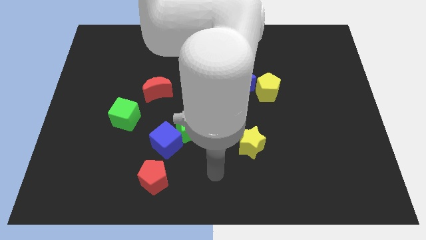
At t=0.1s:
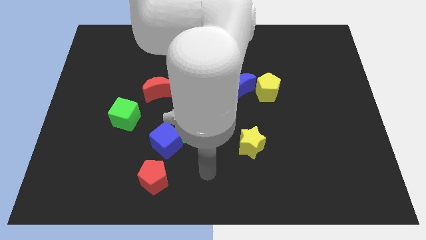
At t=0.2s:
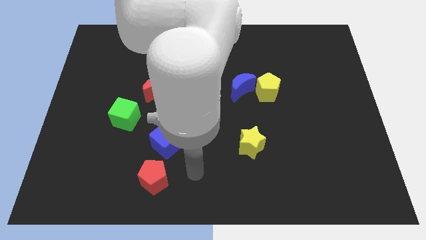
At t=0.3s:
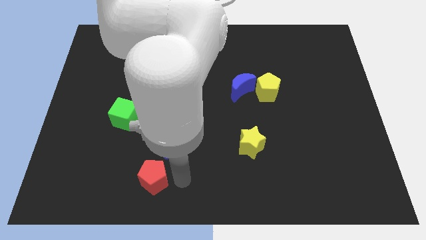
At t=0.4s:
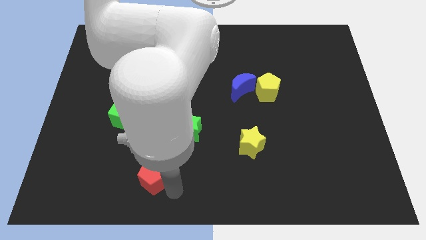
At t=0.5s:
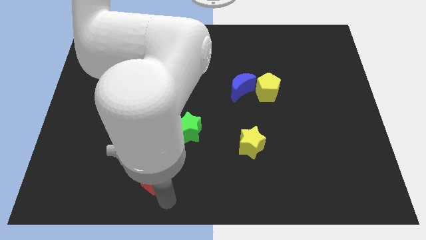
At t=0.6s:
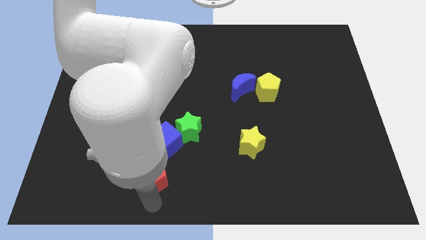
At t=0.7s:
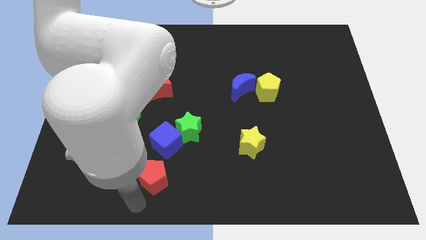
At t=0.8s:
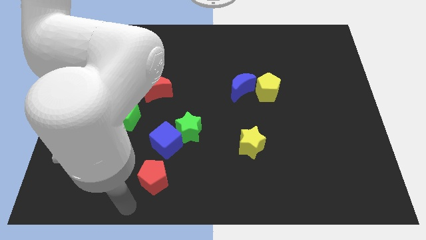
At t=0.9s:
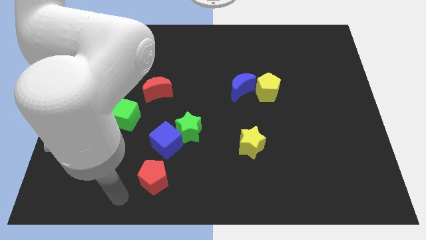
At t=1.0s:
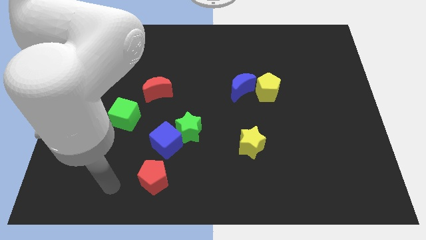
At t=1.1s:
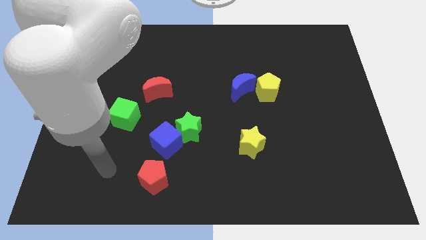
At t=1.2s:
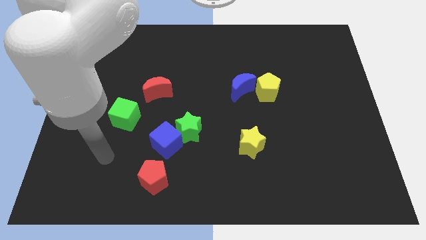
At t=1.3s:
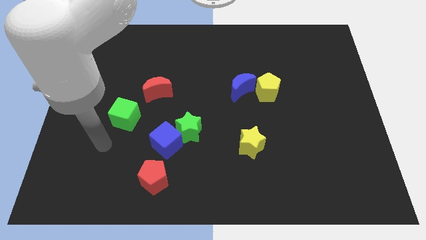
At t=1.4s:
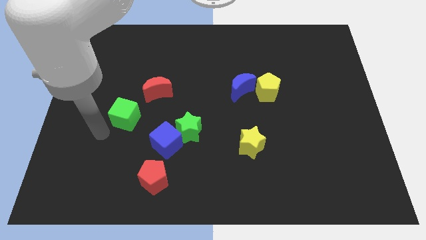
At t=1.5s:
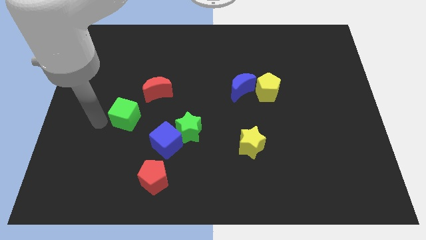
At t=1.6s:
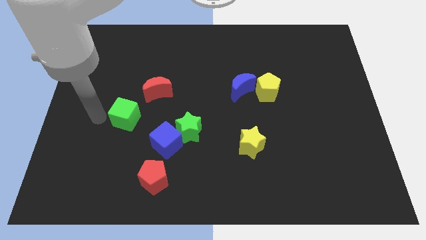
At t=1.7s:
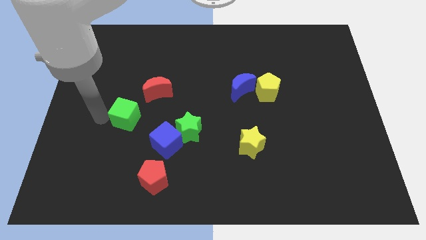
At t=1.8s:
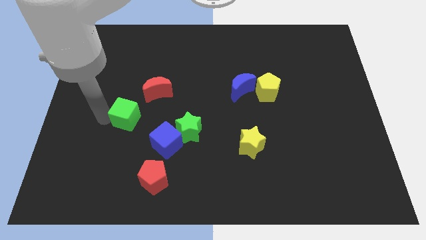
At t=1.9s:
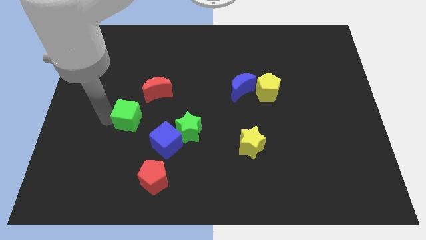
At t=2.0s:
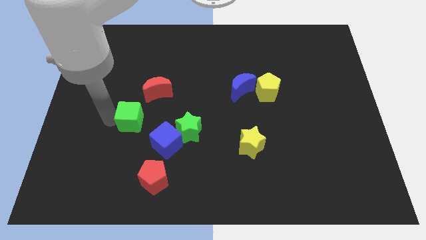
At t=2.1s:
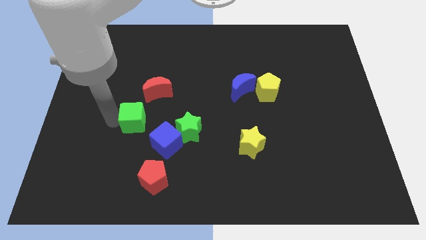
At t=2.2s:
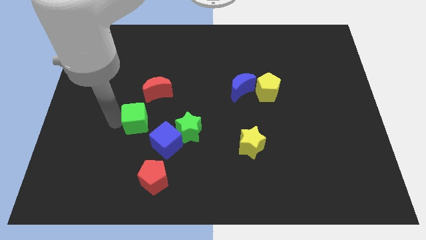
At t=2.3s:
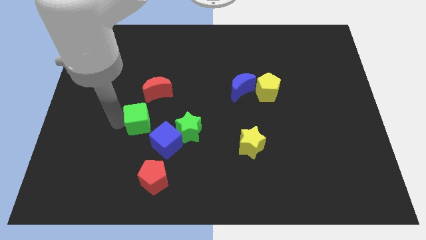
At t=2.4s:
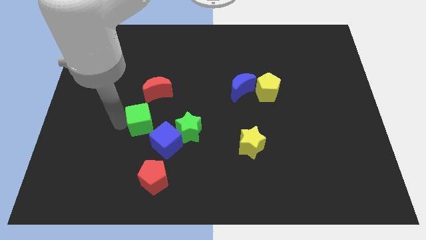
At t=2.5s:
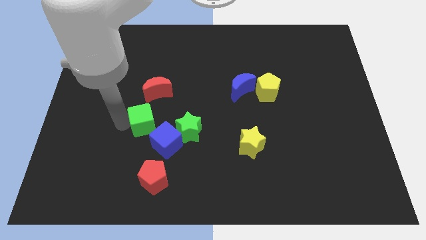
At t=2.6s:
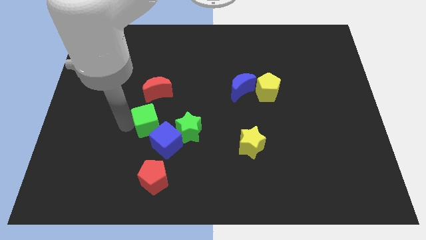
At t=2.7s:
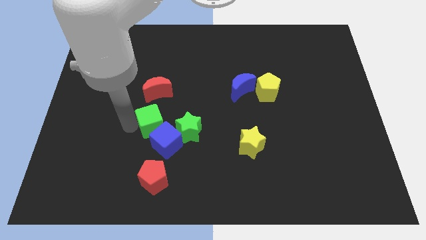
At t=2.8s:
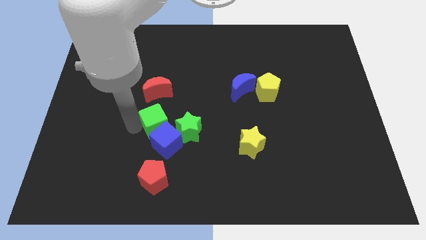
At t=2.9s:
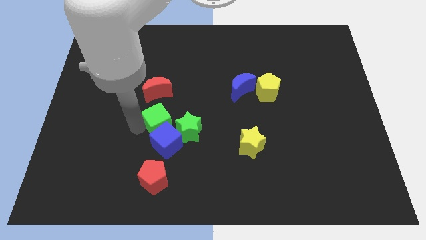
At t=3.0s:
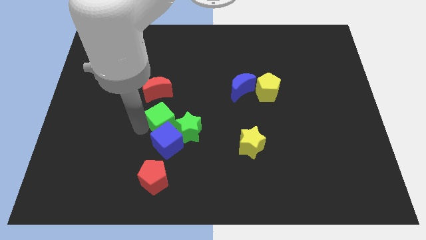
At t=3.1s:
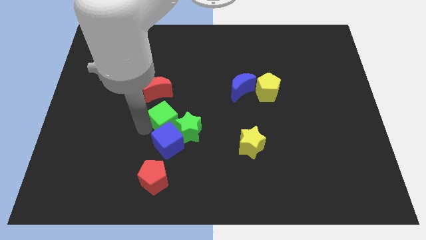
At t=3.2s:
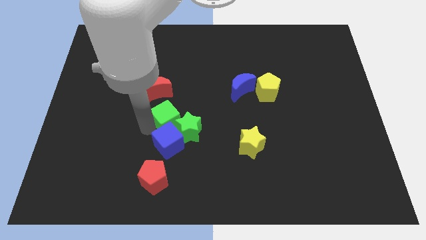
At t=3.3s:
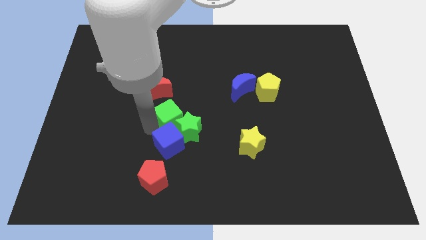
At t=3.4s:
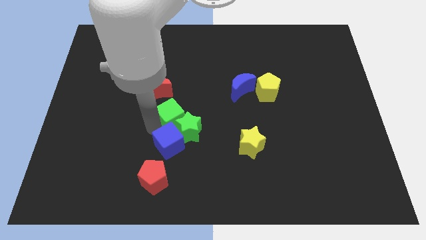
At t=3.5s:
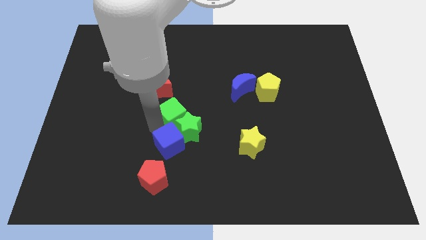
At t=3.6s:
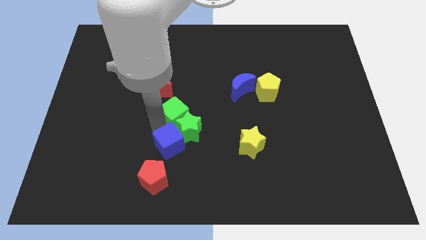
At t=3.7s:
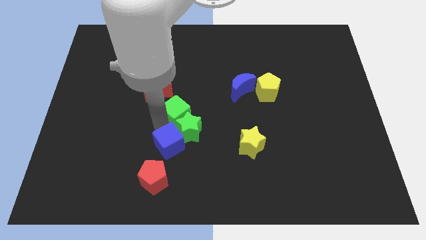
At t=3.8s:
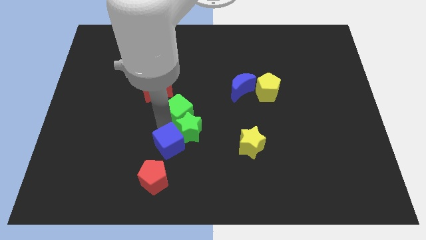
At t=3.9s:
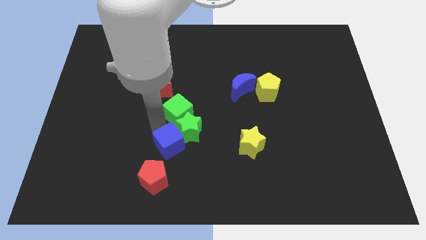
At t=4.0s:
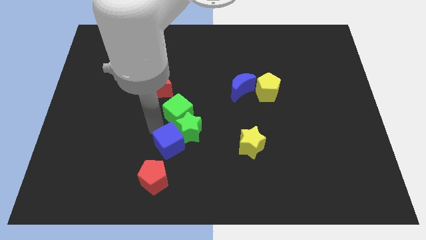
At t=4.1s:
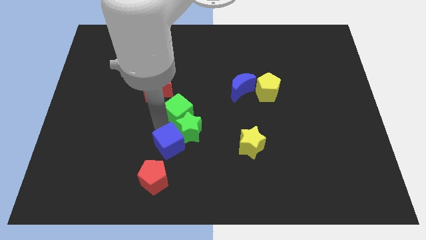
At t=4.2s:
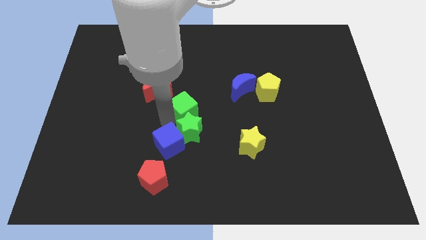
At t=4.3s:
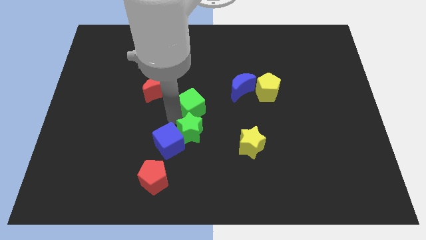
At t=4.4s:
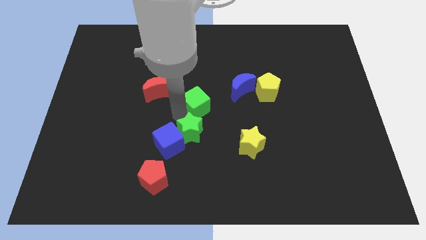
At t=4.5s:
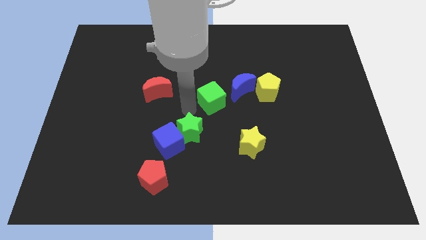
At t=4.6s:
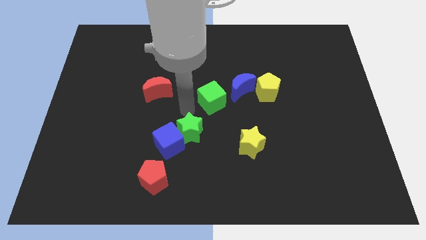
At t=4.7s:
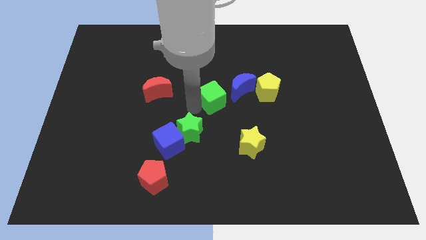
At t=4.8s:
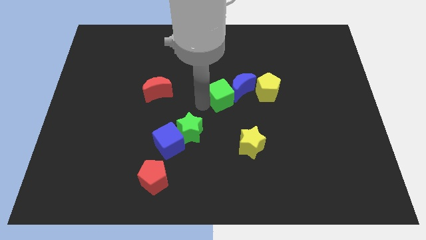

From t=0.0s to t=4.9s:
put the green cube close to the blue moon

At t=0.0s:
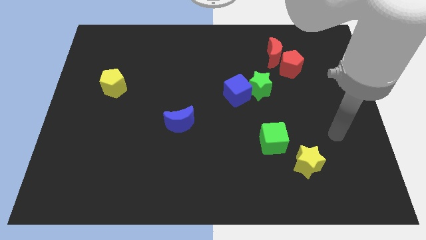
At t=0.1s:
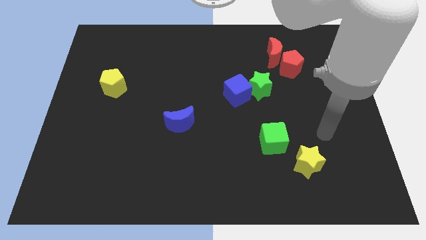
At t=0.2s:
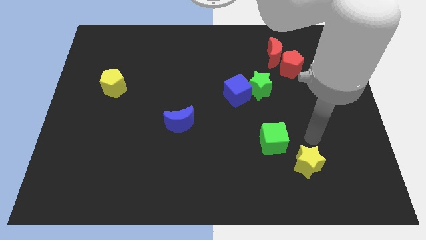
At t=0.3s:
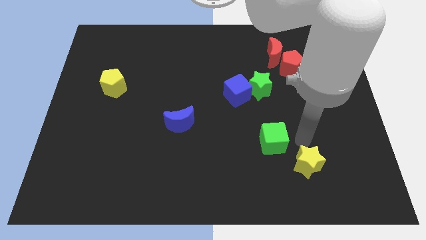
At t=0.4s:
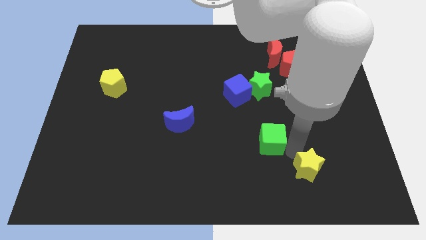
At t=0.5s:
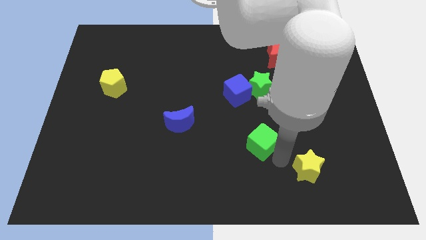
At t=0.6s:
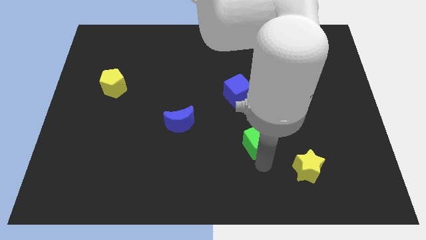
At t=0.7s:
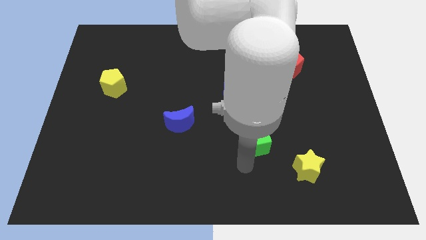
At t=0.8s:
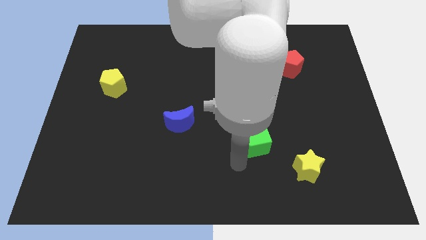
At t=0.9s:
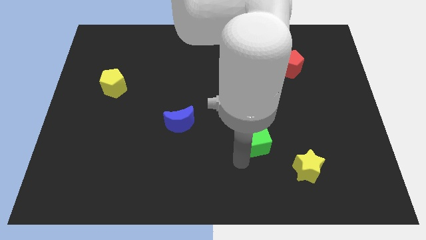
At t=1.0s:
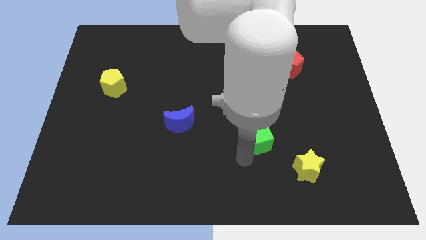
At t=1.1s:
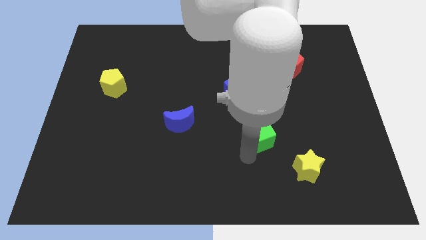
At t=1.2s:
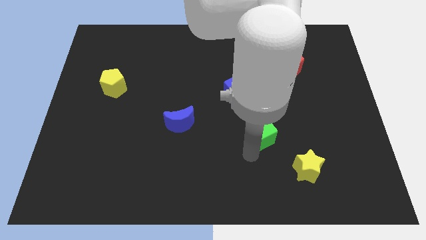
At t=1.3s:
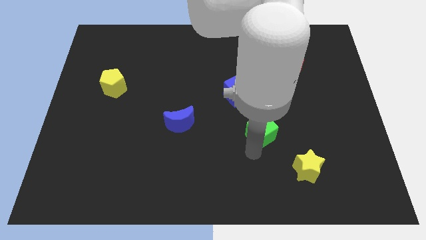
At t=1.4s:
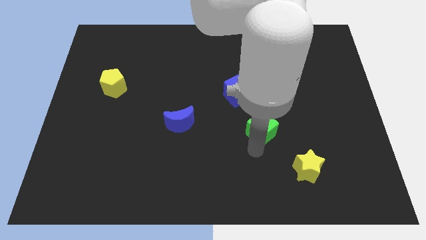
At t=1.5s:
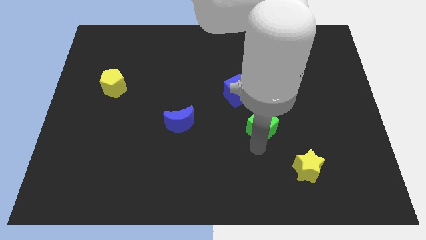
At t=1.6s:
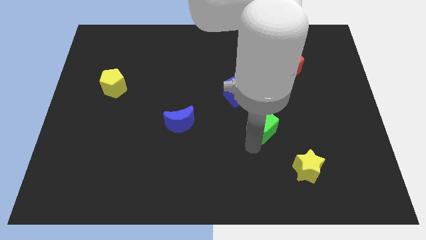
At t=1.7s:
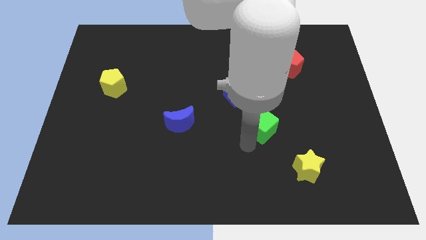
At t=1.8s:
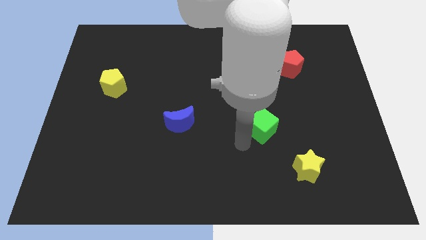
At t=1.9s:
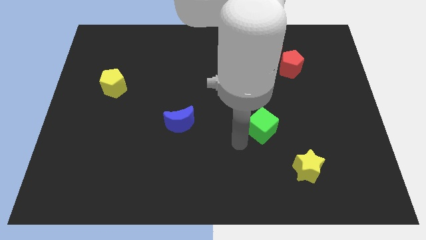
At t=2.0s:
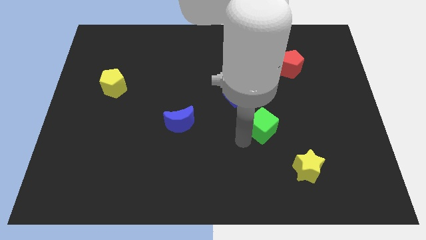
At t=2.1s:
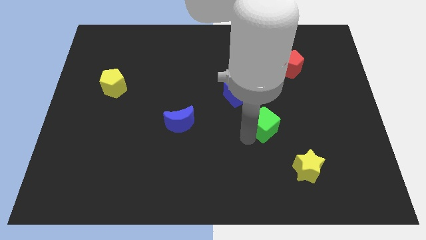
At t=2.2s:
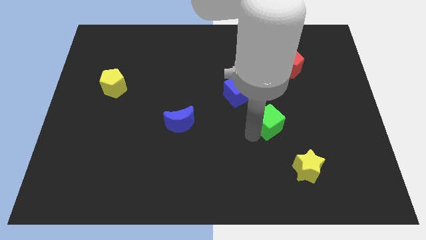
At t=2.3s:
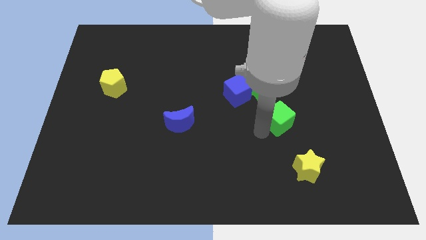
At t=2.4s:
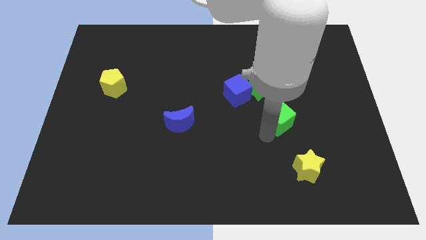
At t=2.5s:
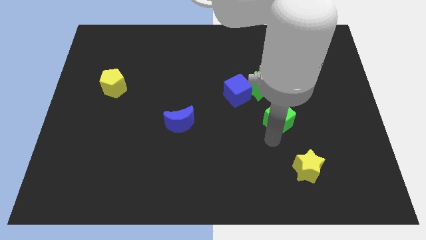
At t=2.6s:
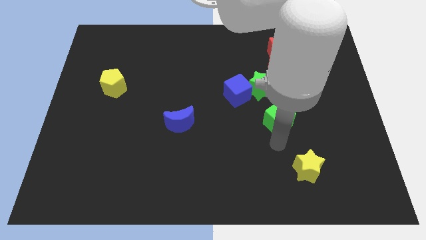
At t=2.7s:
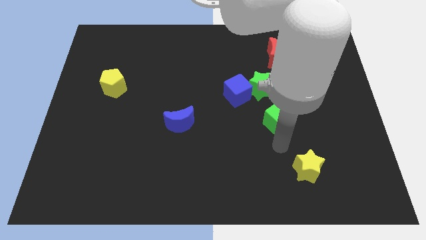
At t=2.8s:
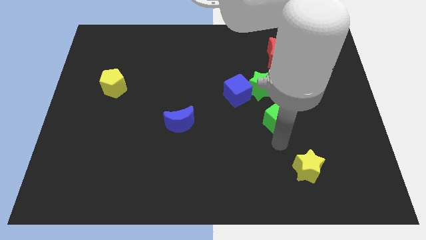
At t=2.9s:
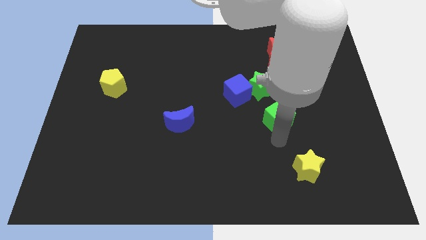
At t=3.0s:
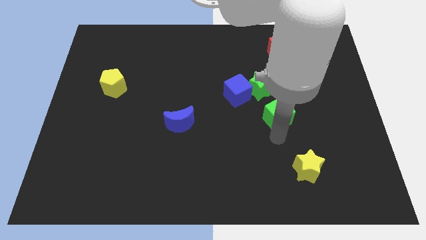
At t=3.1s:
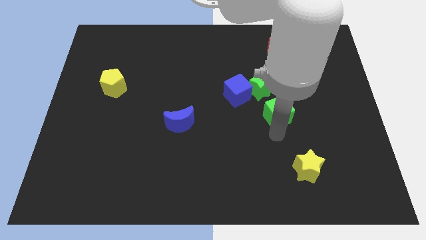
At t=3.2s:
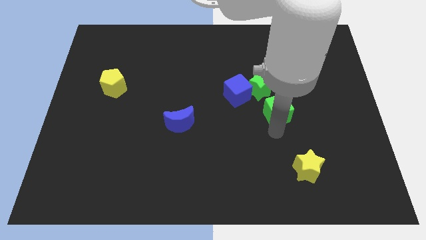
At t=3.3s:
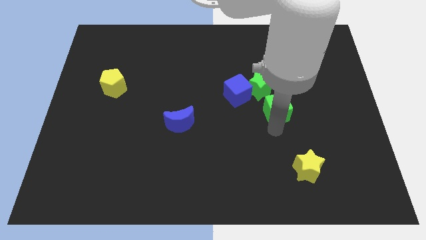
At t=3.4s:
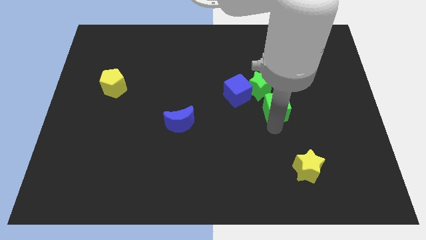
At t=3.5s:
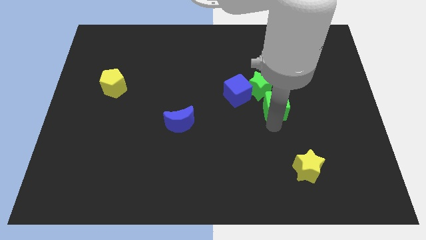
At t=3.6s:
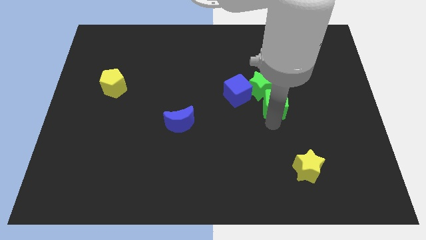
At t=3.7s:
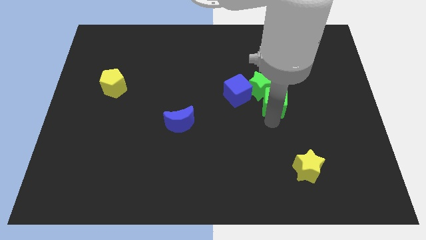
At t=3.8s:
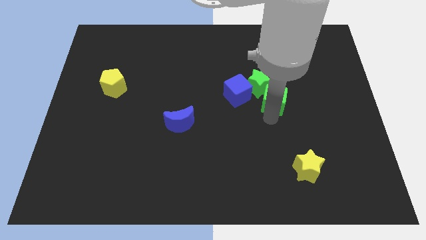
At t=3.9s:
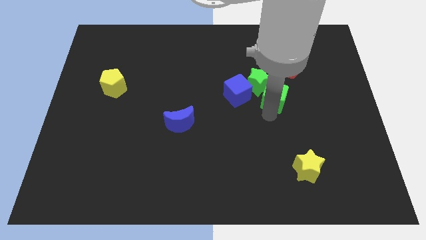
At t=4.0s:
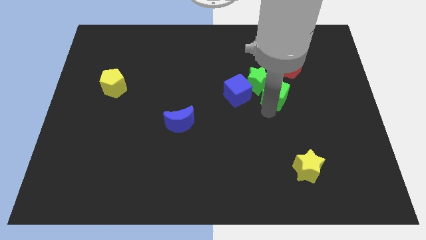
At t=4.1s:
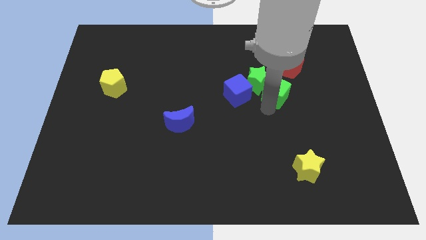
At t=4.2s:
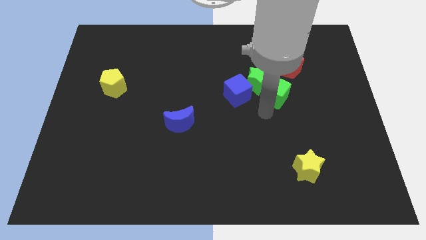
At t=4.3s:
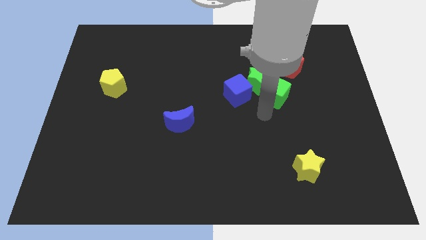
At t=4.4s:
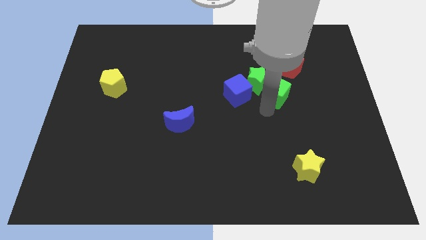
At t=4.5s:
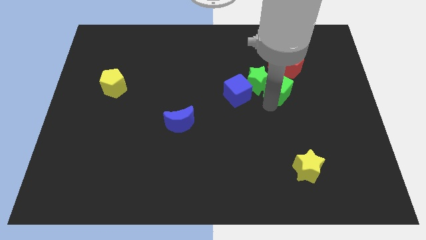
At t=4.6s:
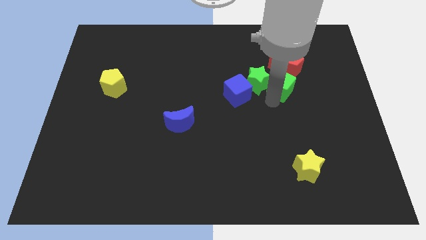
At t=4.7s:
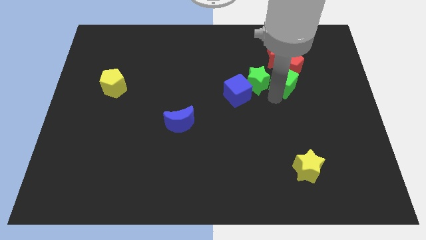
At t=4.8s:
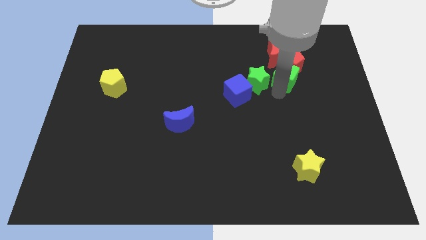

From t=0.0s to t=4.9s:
put the green cube towards the red pentagon
